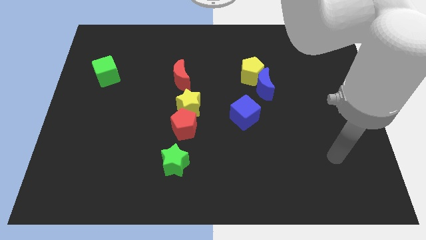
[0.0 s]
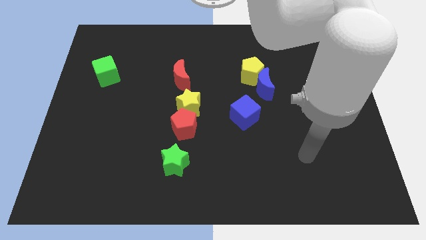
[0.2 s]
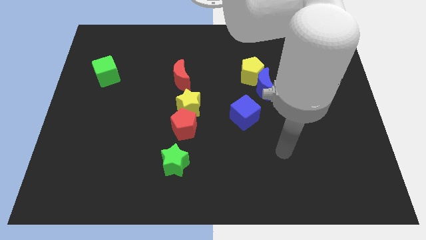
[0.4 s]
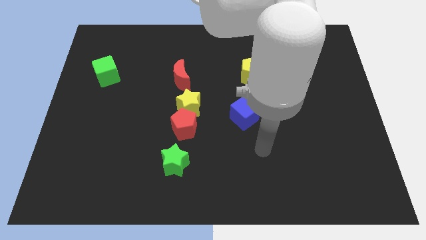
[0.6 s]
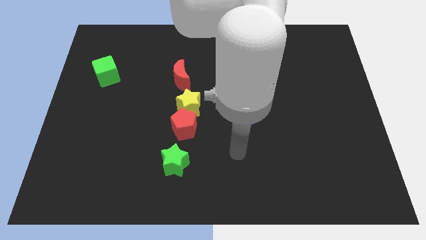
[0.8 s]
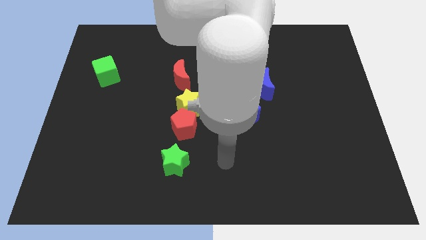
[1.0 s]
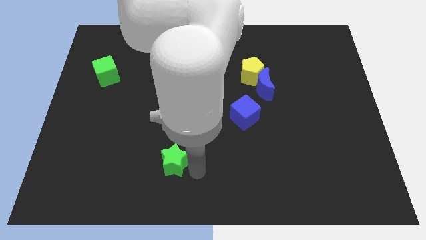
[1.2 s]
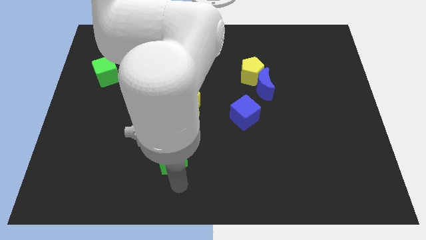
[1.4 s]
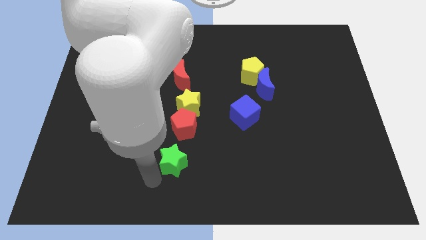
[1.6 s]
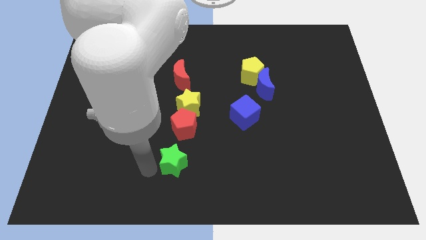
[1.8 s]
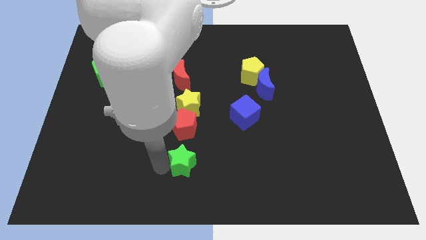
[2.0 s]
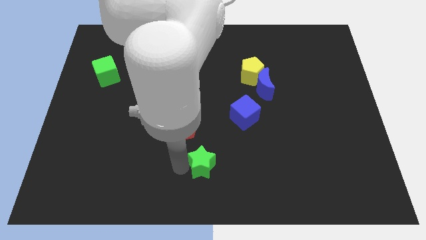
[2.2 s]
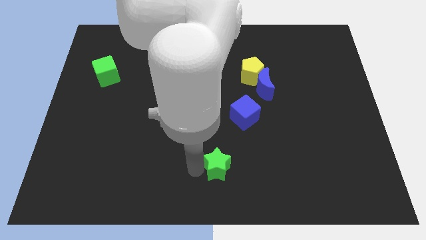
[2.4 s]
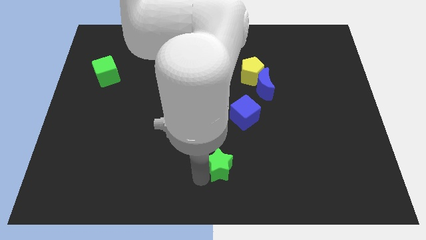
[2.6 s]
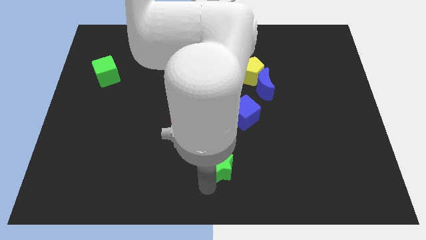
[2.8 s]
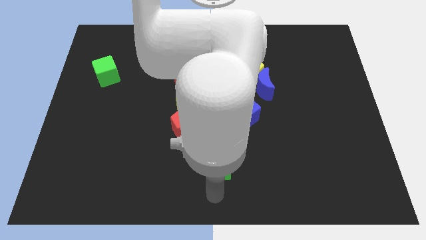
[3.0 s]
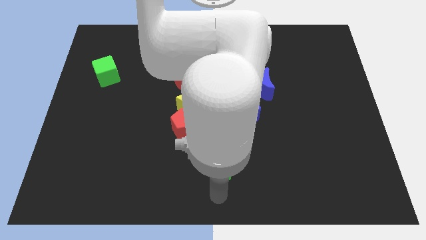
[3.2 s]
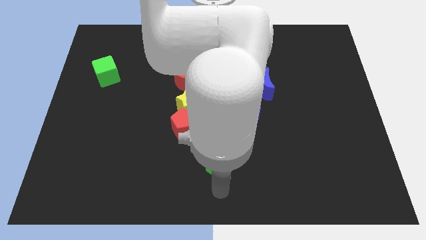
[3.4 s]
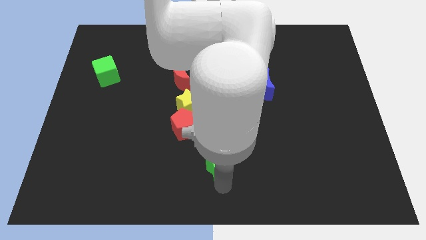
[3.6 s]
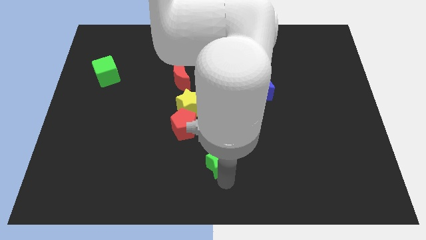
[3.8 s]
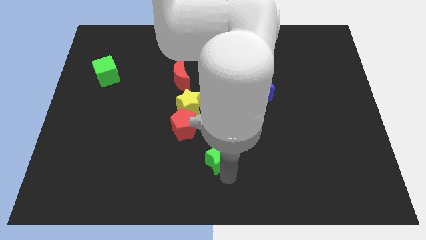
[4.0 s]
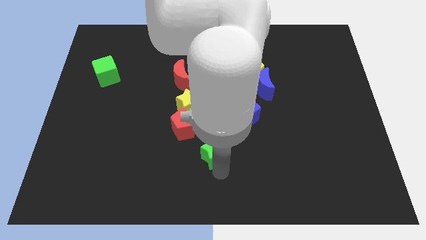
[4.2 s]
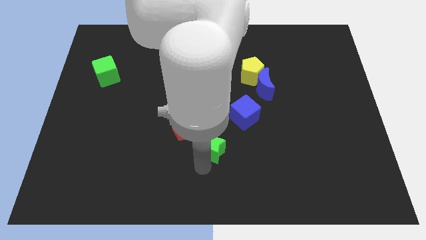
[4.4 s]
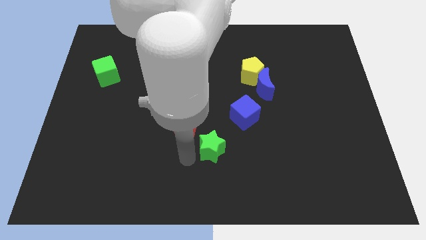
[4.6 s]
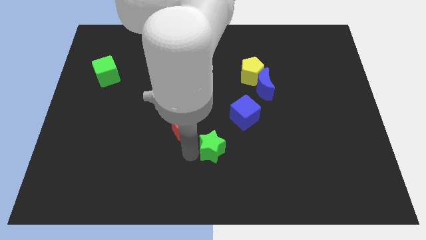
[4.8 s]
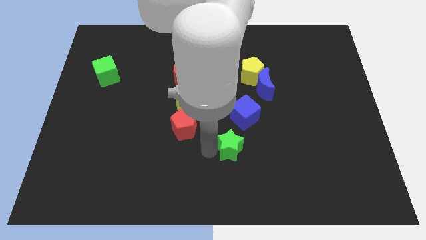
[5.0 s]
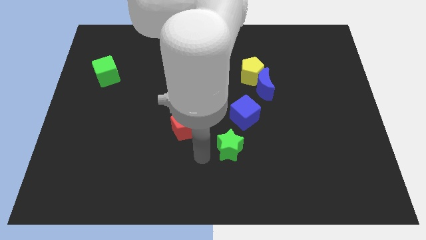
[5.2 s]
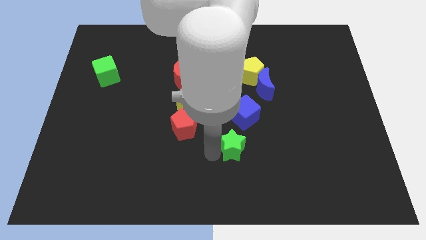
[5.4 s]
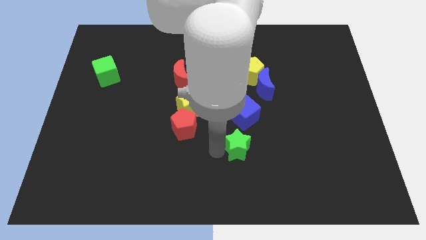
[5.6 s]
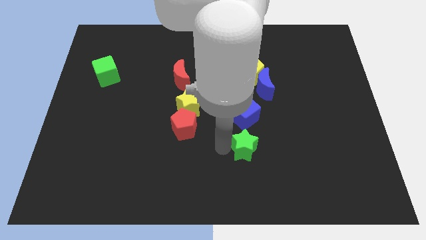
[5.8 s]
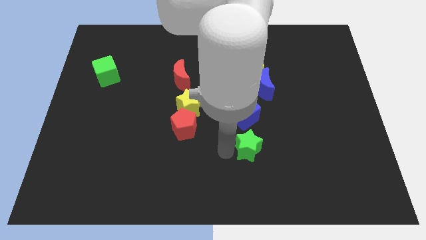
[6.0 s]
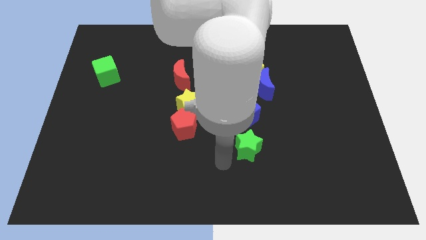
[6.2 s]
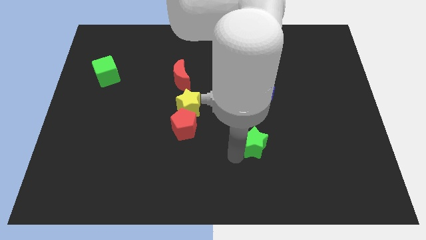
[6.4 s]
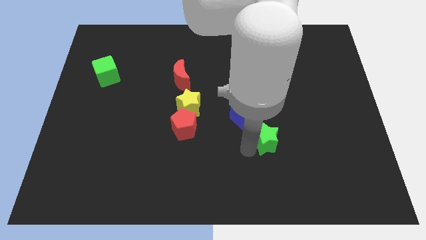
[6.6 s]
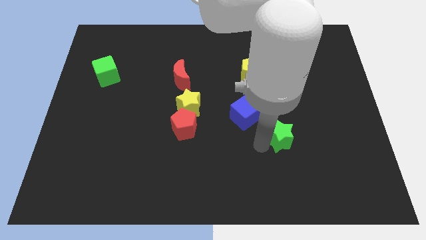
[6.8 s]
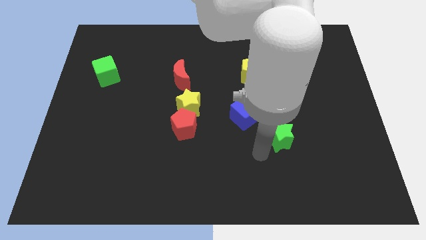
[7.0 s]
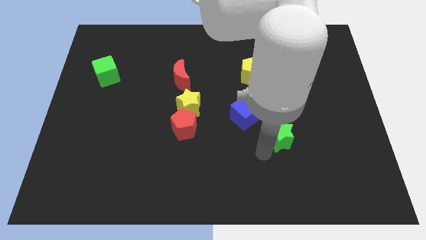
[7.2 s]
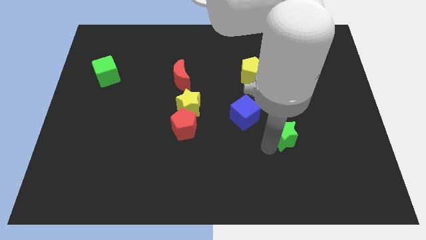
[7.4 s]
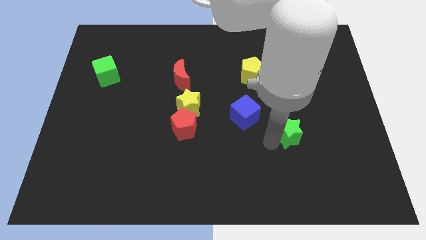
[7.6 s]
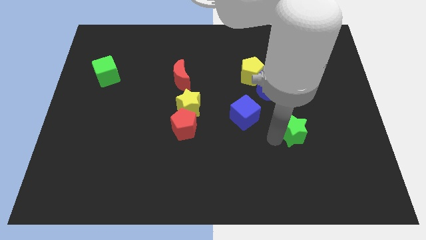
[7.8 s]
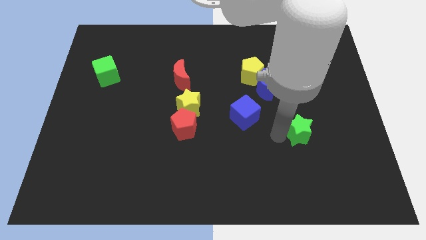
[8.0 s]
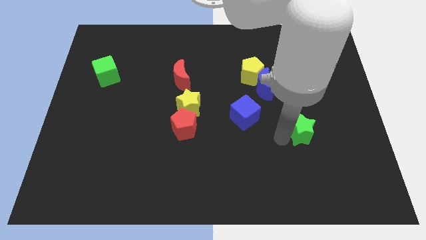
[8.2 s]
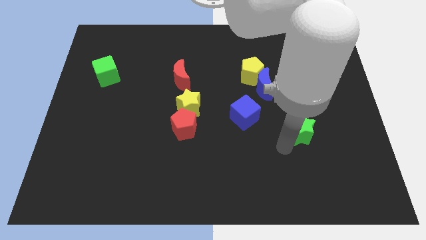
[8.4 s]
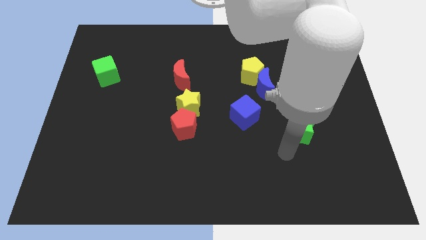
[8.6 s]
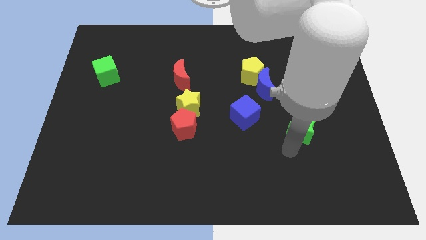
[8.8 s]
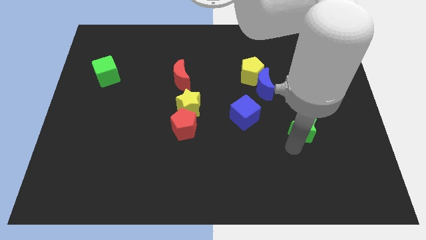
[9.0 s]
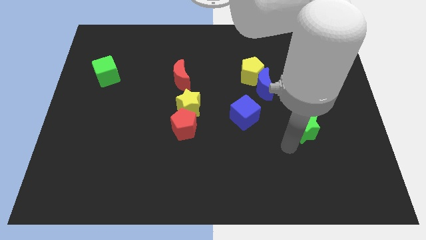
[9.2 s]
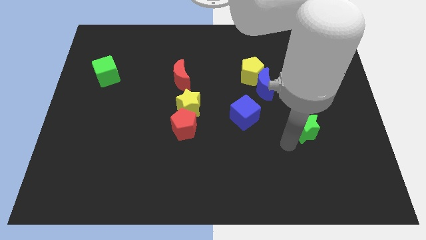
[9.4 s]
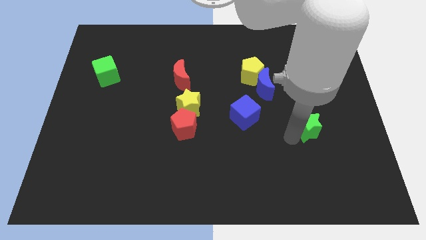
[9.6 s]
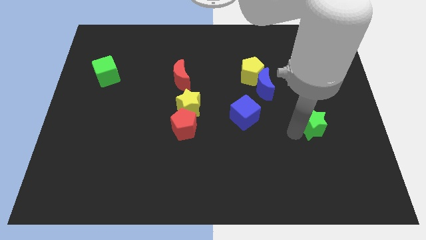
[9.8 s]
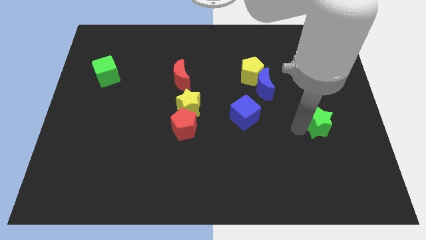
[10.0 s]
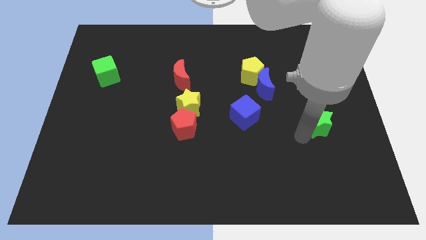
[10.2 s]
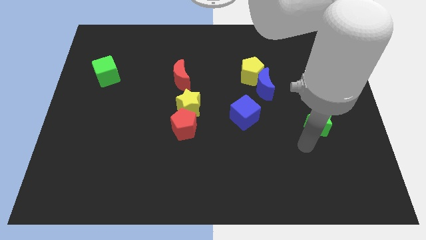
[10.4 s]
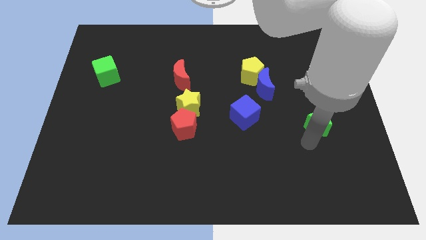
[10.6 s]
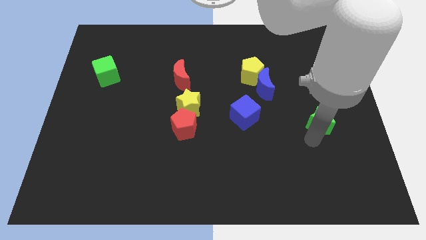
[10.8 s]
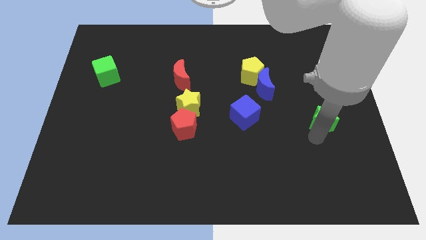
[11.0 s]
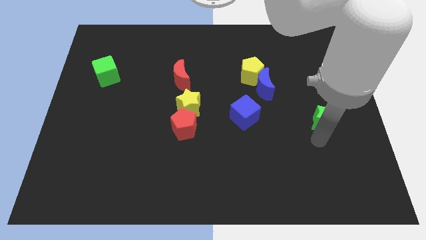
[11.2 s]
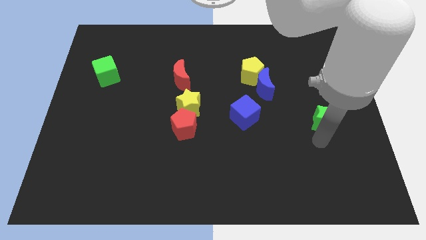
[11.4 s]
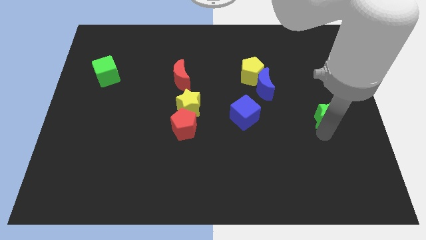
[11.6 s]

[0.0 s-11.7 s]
move the green star to the right side of the board

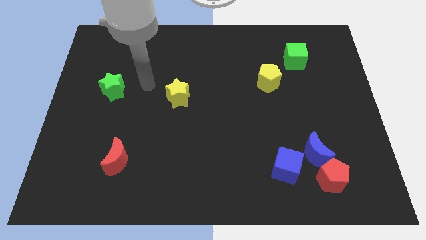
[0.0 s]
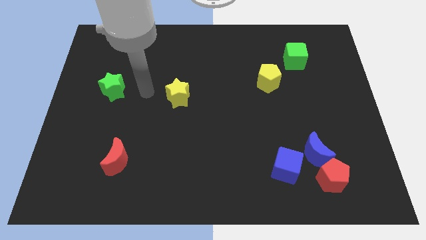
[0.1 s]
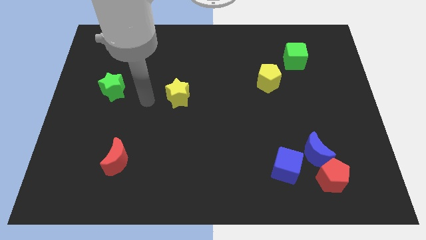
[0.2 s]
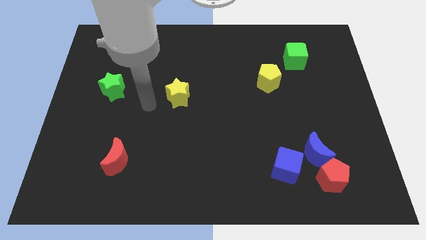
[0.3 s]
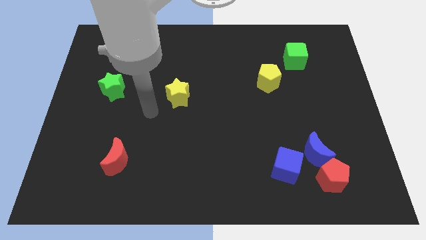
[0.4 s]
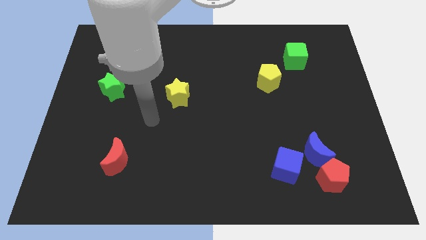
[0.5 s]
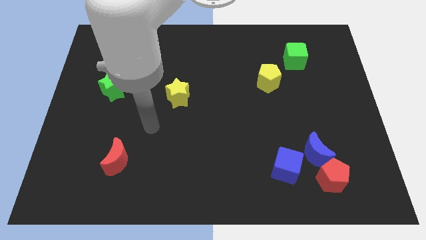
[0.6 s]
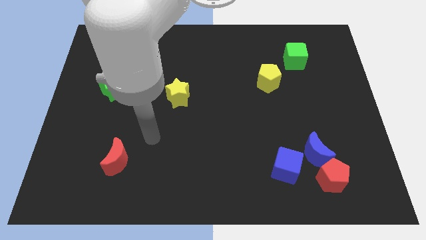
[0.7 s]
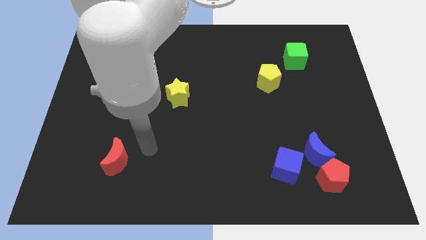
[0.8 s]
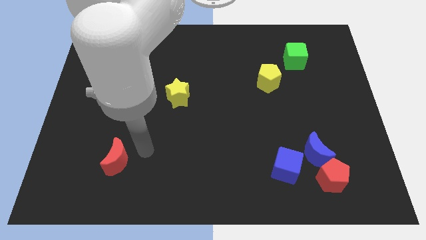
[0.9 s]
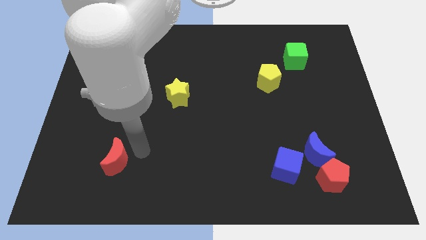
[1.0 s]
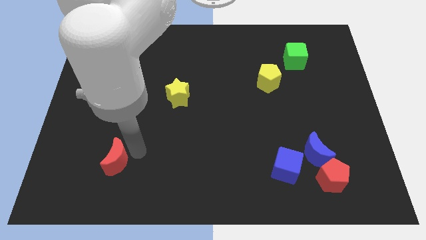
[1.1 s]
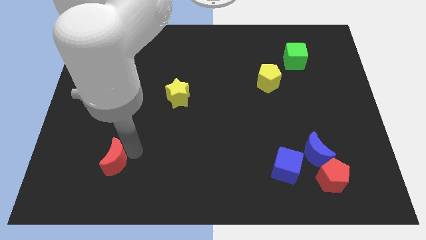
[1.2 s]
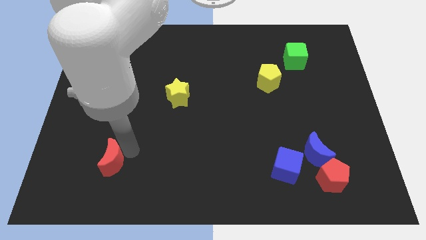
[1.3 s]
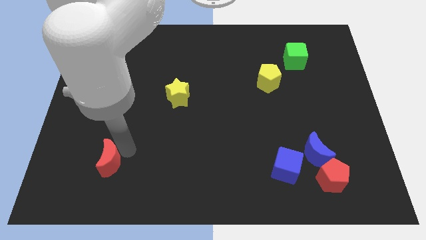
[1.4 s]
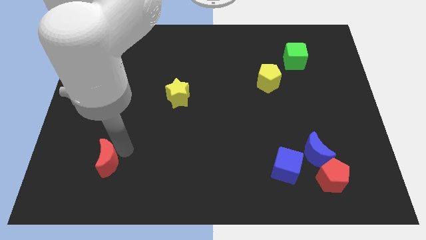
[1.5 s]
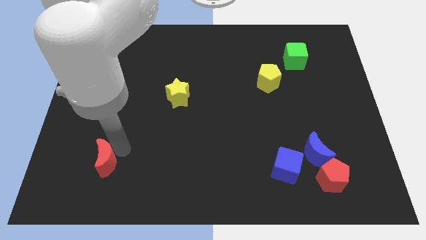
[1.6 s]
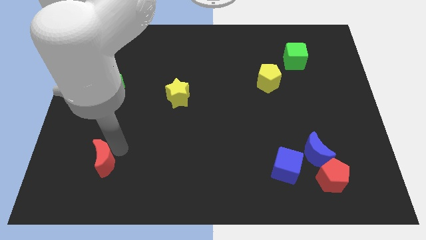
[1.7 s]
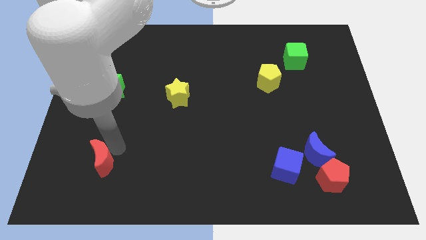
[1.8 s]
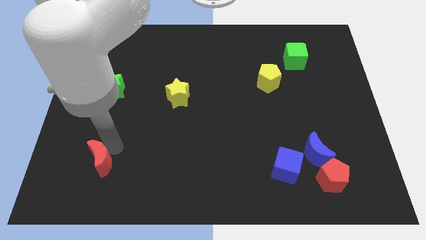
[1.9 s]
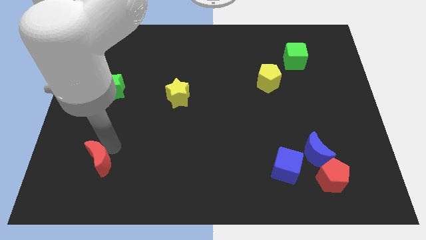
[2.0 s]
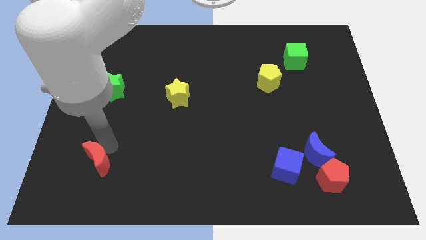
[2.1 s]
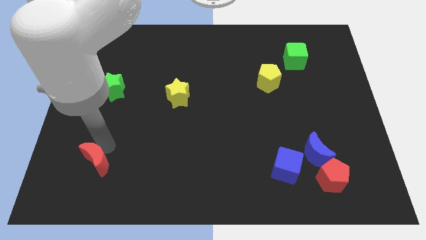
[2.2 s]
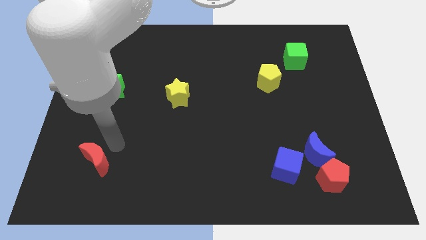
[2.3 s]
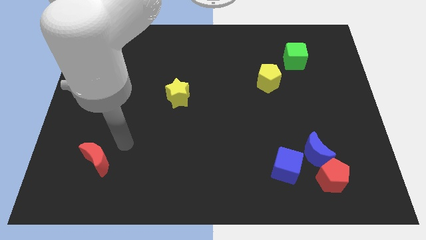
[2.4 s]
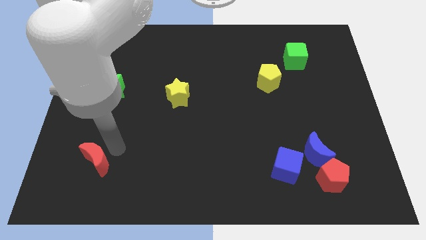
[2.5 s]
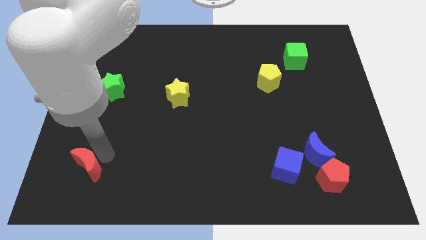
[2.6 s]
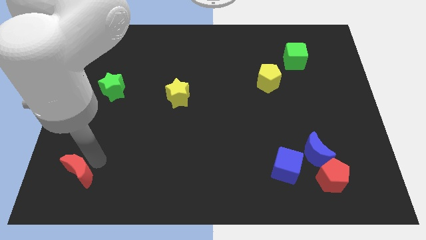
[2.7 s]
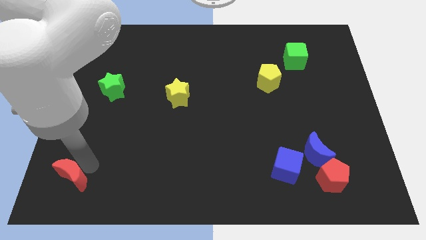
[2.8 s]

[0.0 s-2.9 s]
slide the red moon to the lower left corner
